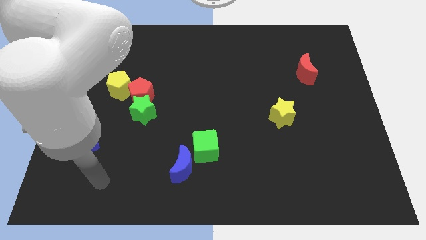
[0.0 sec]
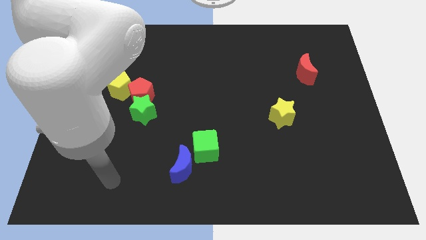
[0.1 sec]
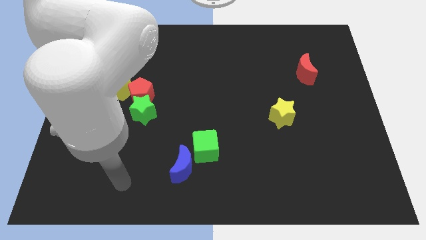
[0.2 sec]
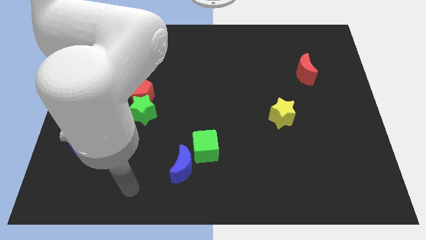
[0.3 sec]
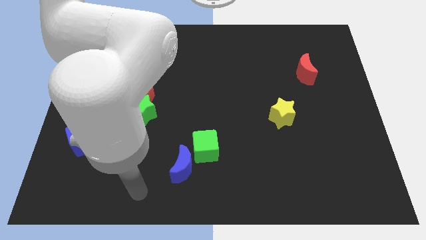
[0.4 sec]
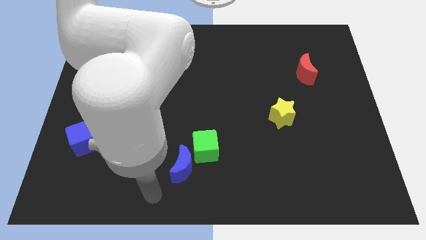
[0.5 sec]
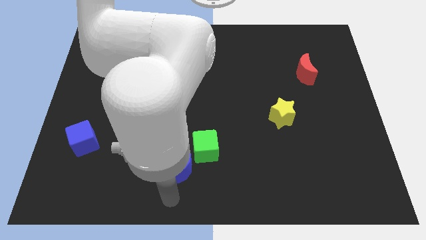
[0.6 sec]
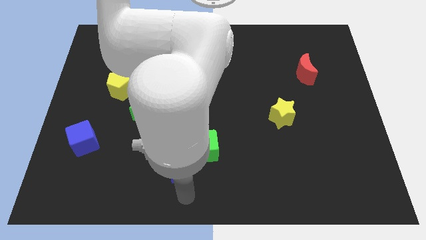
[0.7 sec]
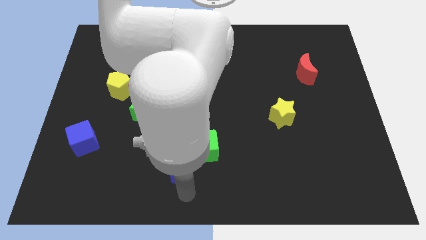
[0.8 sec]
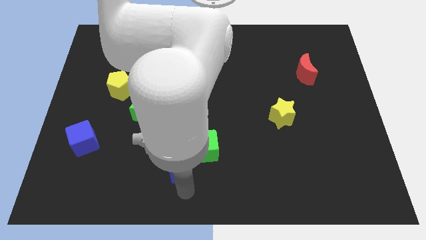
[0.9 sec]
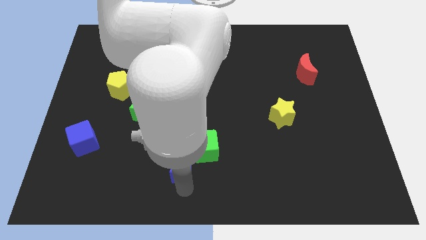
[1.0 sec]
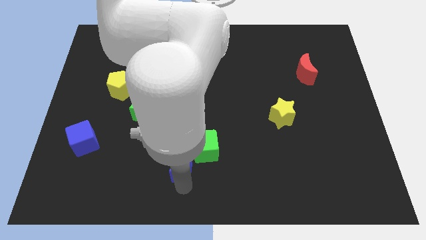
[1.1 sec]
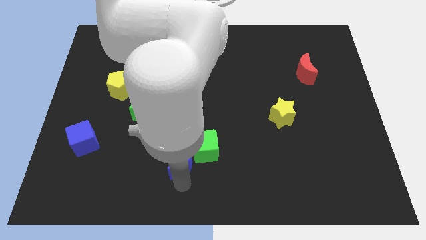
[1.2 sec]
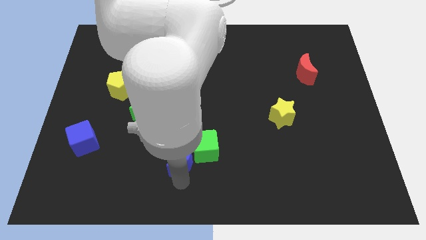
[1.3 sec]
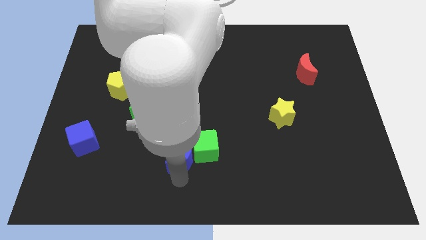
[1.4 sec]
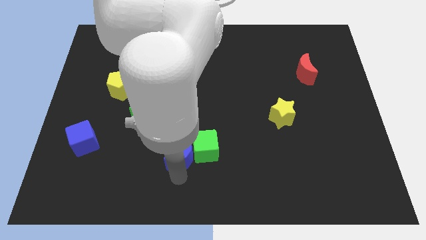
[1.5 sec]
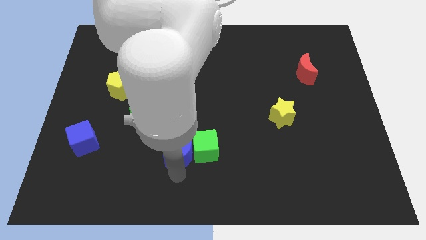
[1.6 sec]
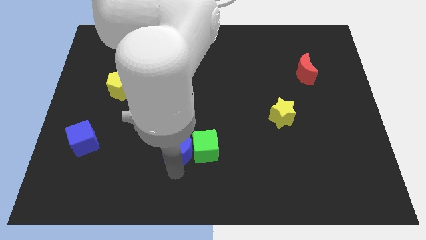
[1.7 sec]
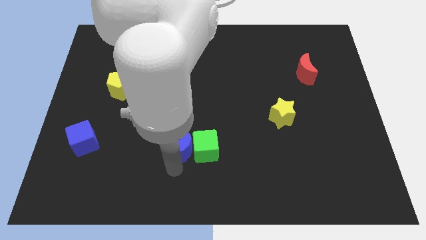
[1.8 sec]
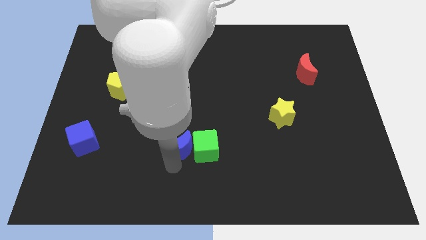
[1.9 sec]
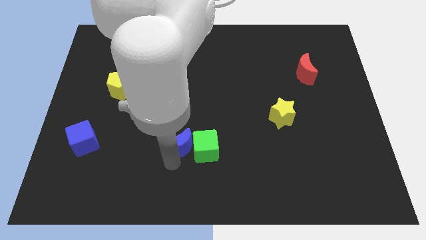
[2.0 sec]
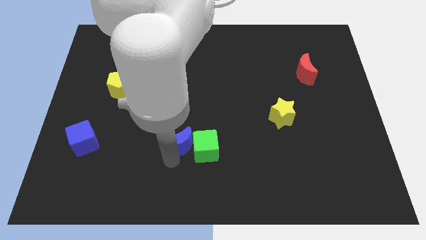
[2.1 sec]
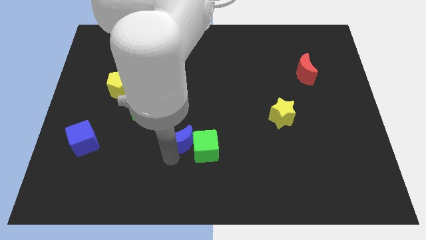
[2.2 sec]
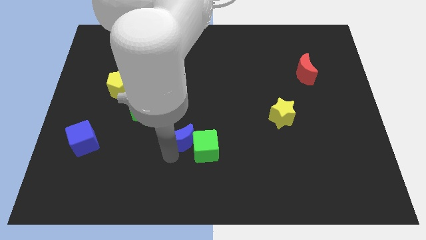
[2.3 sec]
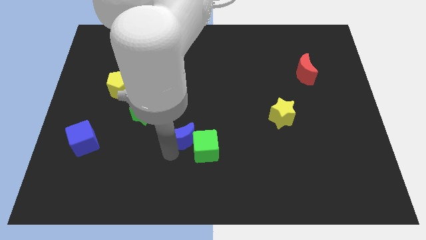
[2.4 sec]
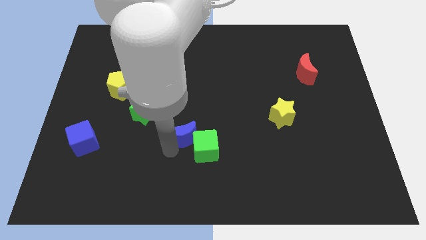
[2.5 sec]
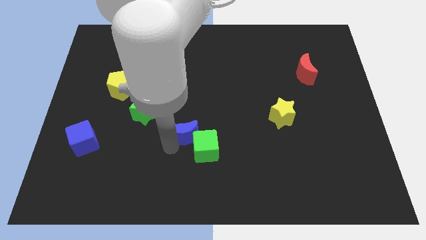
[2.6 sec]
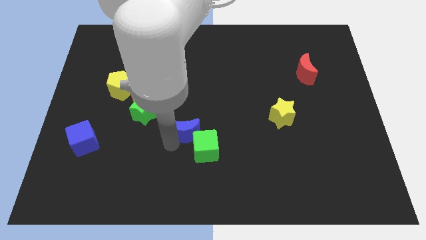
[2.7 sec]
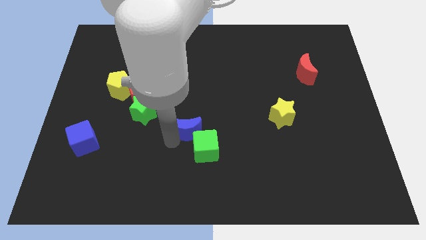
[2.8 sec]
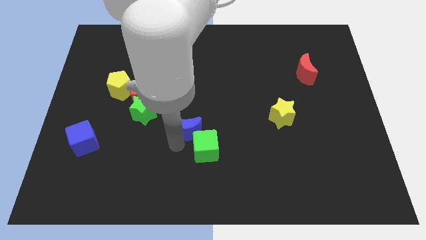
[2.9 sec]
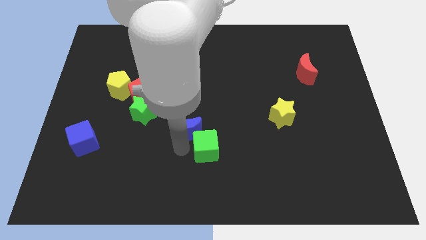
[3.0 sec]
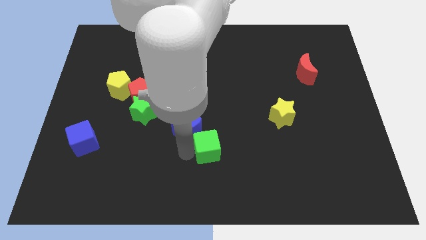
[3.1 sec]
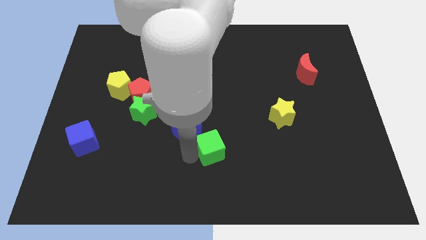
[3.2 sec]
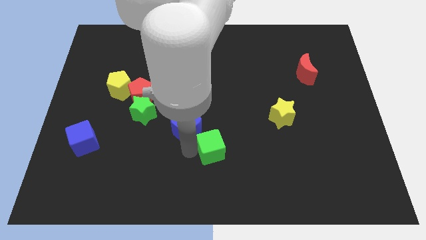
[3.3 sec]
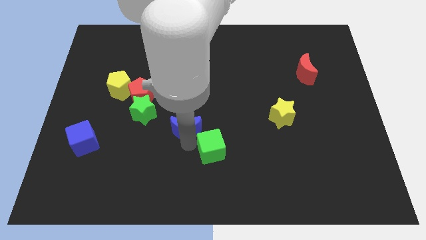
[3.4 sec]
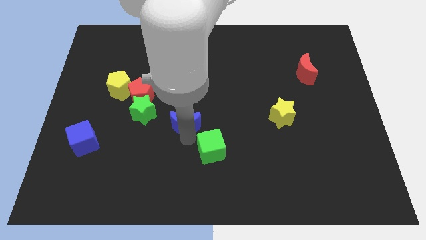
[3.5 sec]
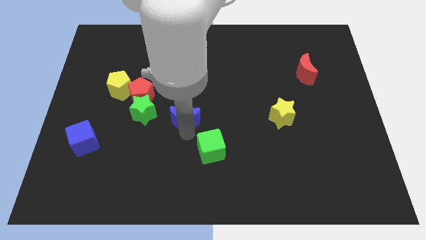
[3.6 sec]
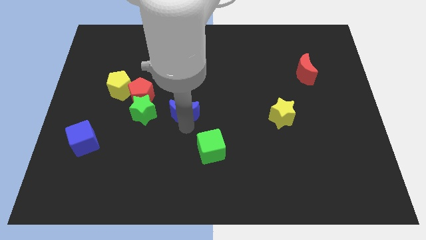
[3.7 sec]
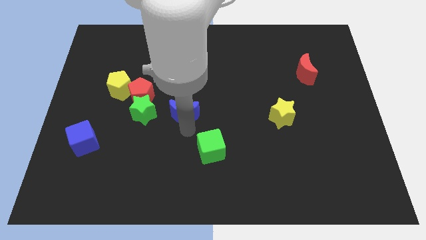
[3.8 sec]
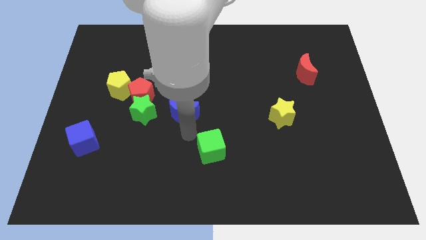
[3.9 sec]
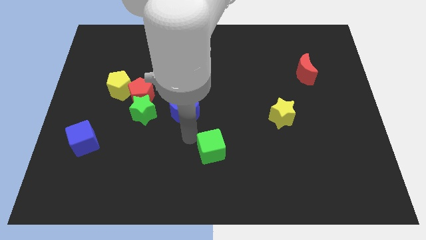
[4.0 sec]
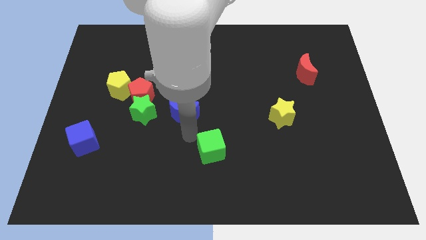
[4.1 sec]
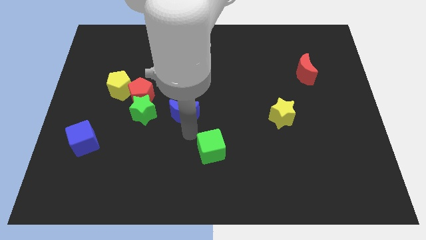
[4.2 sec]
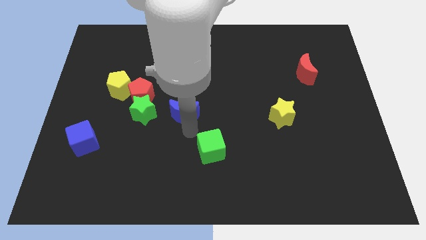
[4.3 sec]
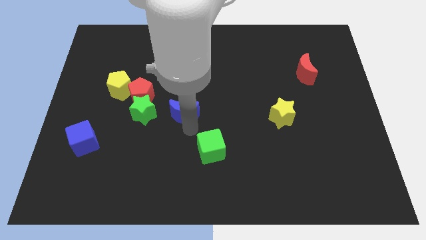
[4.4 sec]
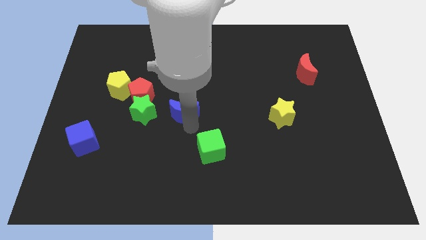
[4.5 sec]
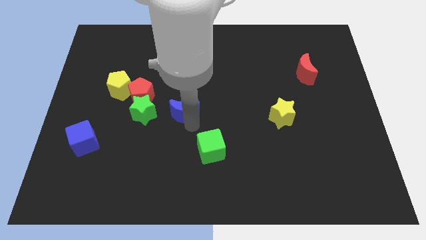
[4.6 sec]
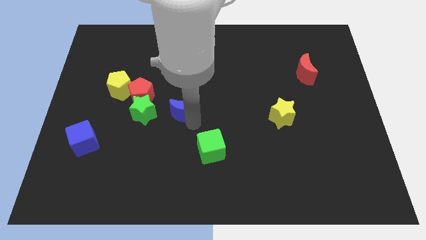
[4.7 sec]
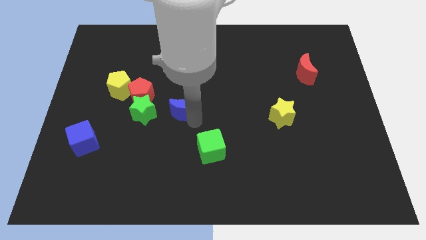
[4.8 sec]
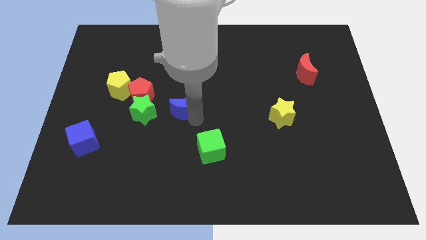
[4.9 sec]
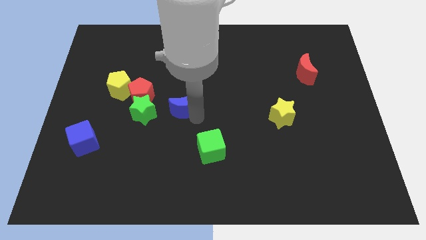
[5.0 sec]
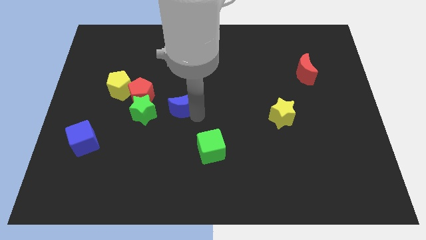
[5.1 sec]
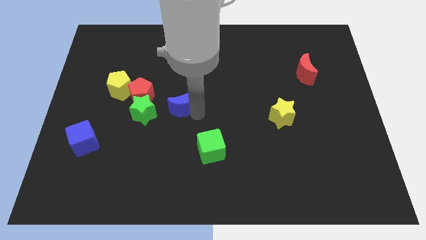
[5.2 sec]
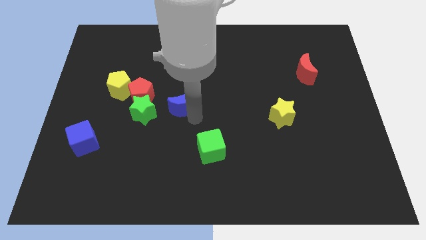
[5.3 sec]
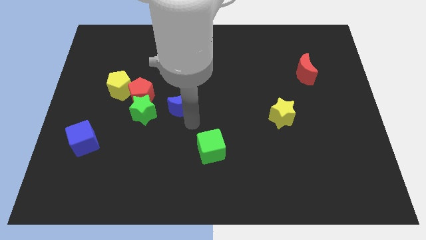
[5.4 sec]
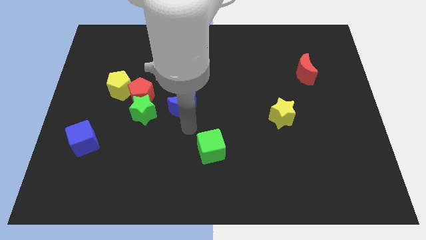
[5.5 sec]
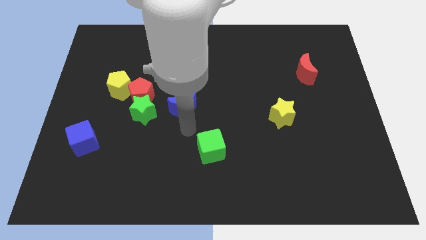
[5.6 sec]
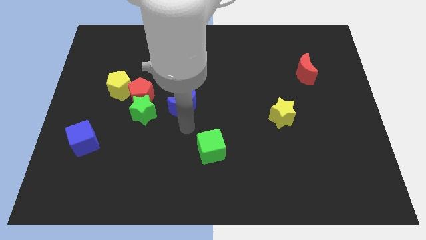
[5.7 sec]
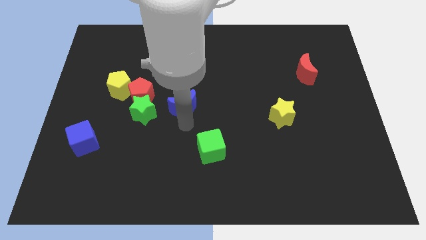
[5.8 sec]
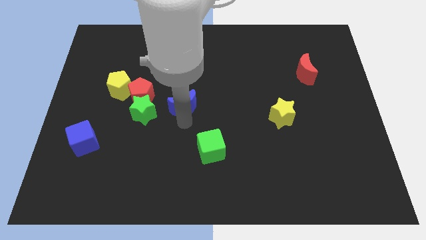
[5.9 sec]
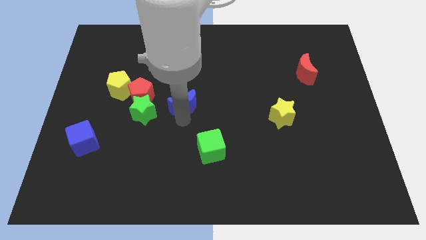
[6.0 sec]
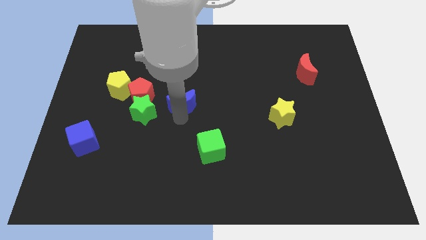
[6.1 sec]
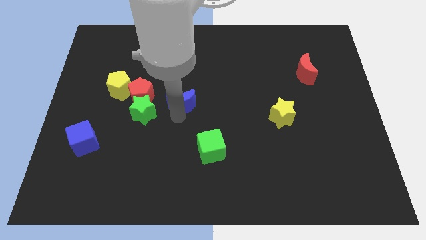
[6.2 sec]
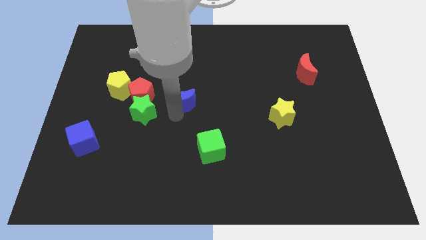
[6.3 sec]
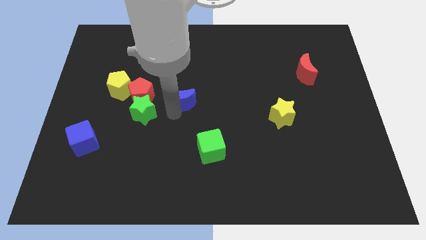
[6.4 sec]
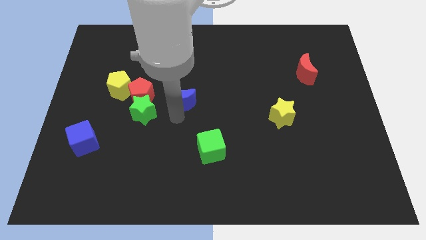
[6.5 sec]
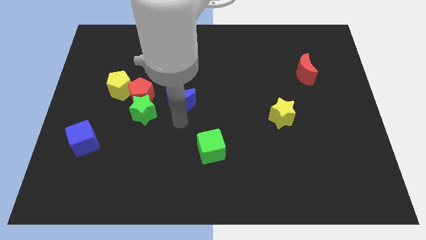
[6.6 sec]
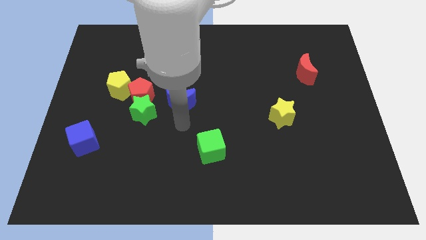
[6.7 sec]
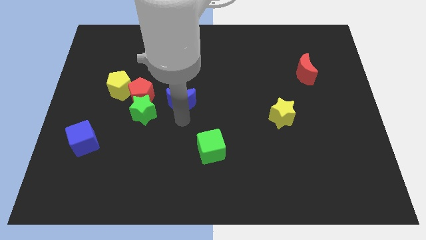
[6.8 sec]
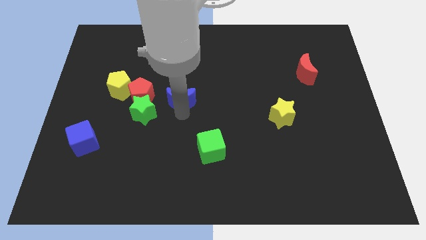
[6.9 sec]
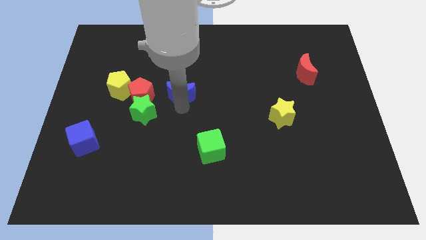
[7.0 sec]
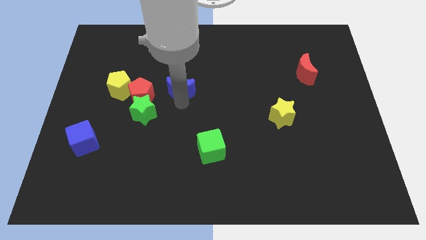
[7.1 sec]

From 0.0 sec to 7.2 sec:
push the blue moon up

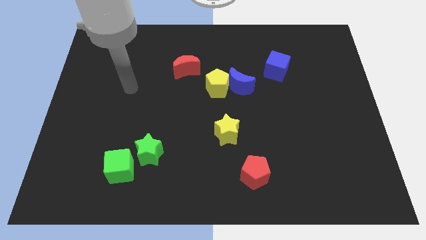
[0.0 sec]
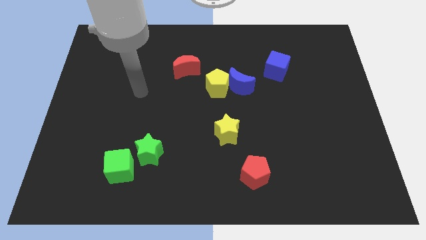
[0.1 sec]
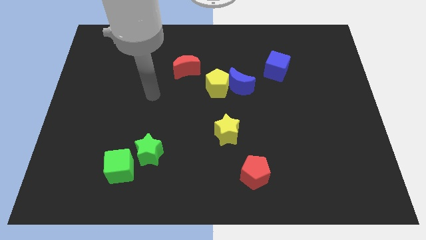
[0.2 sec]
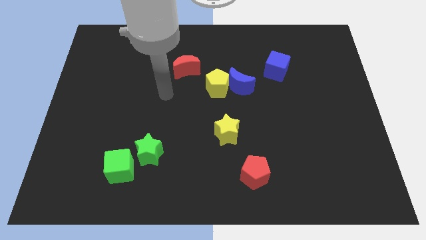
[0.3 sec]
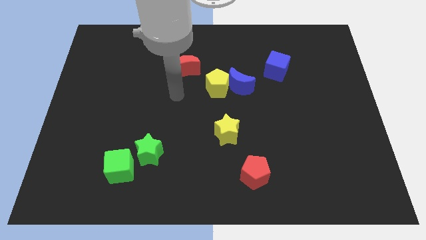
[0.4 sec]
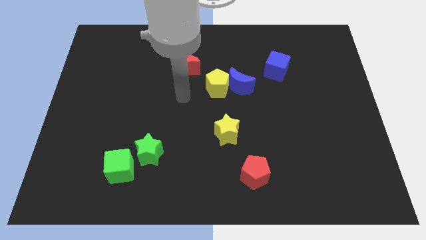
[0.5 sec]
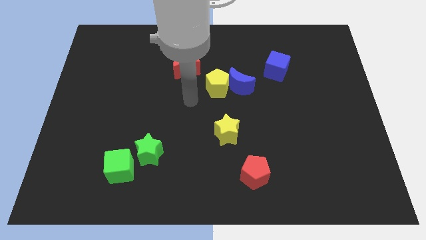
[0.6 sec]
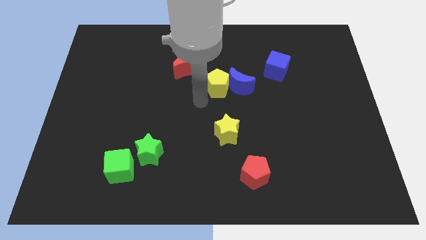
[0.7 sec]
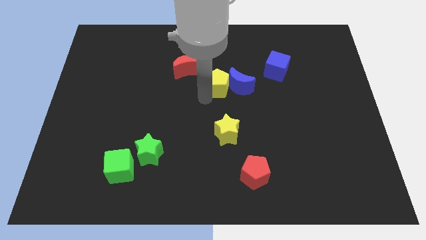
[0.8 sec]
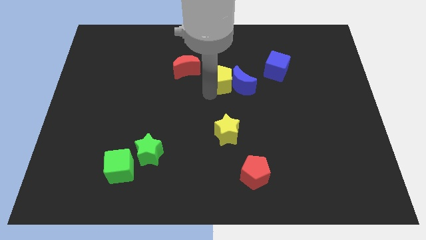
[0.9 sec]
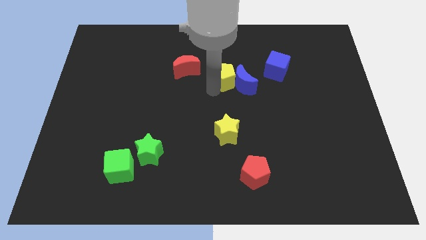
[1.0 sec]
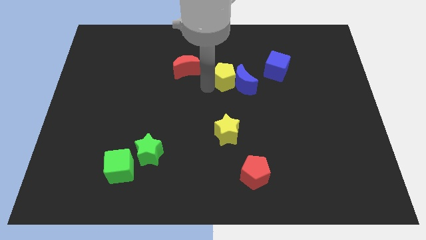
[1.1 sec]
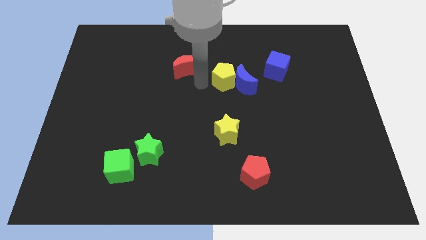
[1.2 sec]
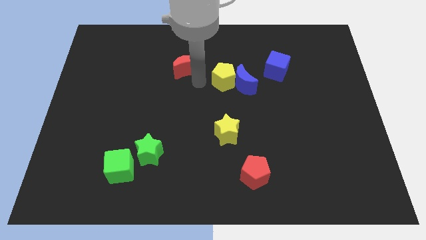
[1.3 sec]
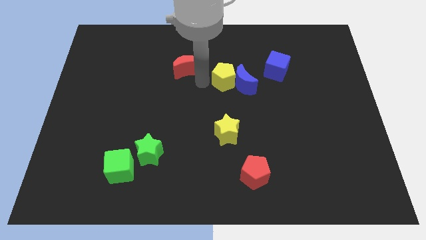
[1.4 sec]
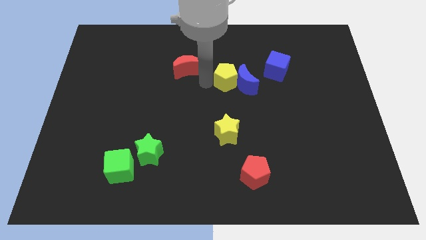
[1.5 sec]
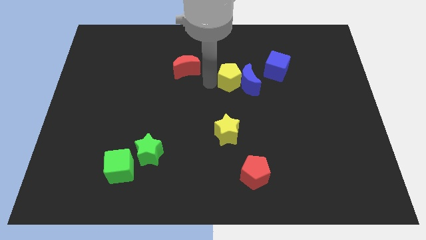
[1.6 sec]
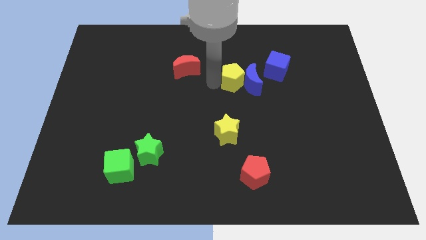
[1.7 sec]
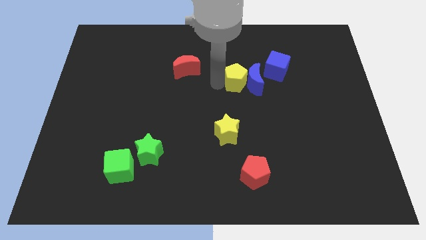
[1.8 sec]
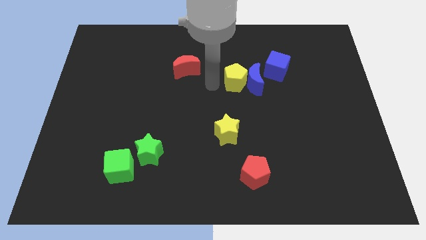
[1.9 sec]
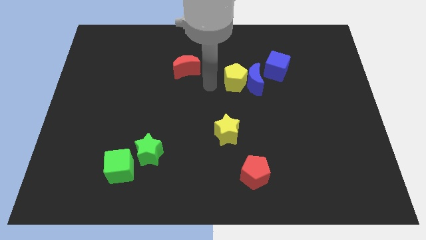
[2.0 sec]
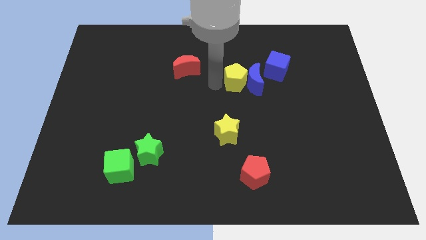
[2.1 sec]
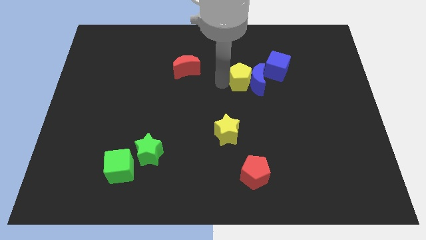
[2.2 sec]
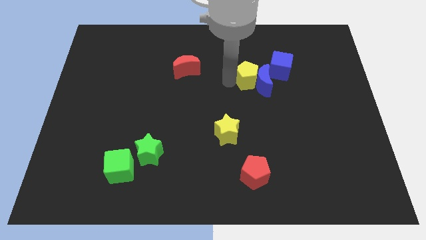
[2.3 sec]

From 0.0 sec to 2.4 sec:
slide the yellow pentagon right a bit
